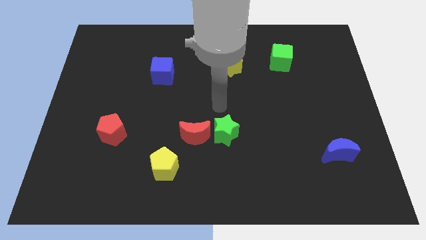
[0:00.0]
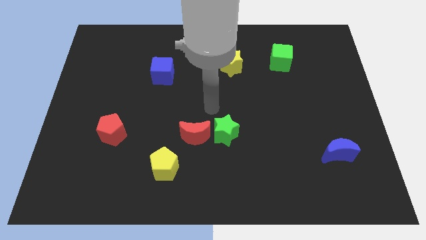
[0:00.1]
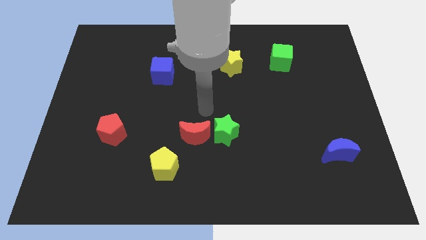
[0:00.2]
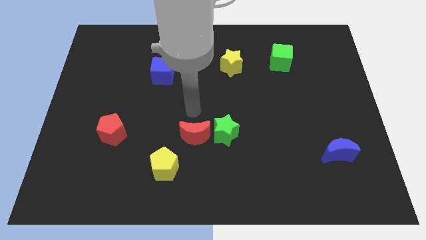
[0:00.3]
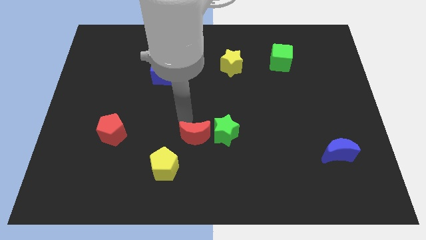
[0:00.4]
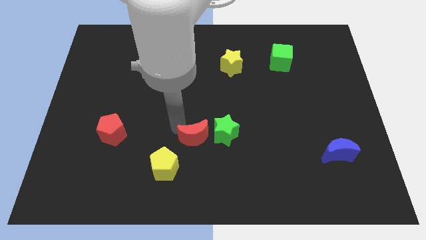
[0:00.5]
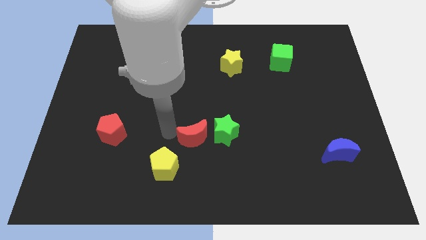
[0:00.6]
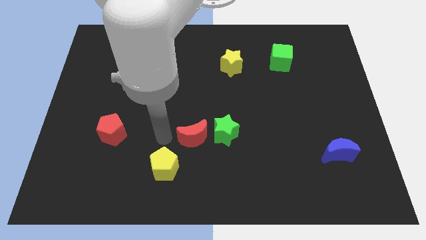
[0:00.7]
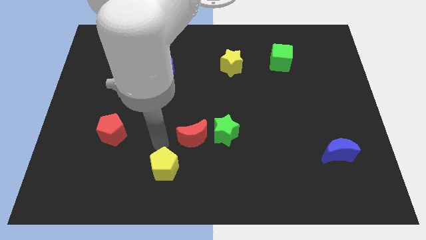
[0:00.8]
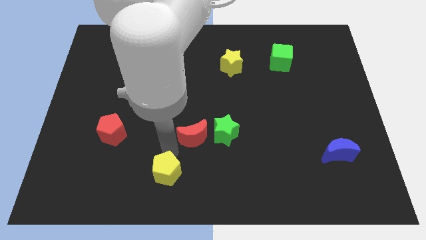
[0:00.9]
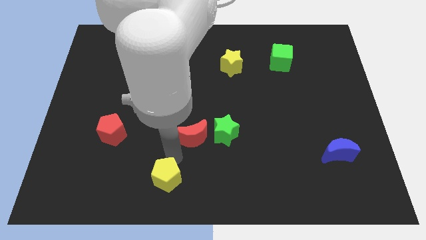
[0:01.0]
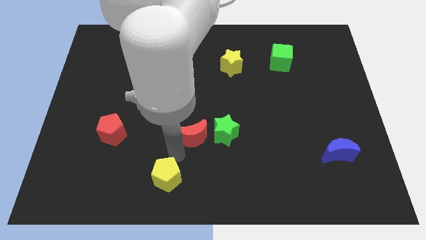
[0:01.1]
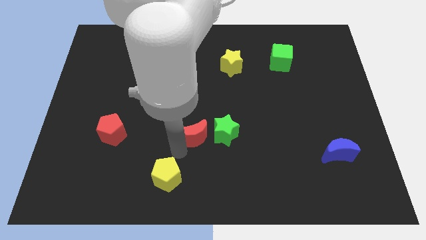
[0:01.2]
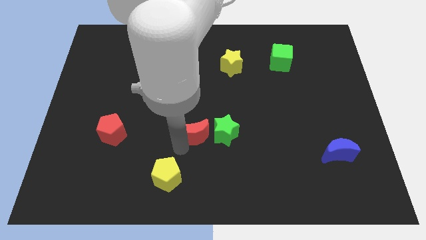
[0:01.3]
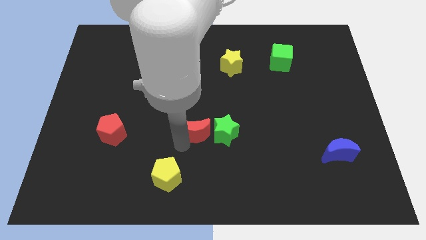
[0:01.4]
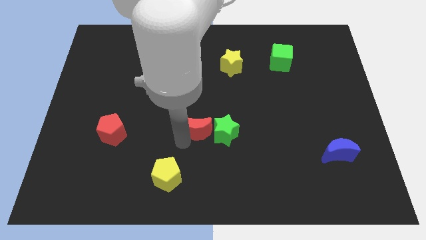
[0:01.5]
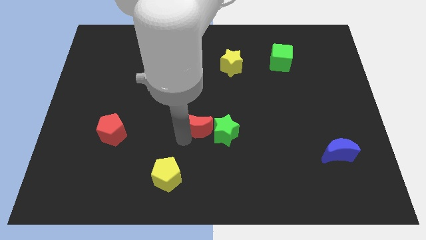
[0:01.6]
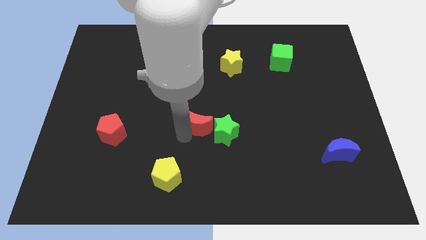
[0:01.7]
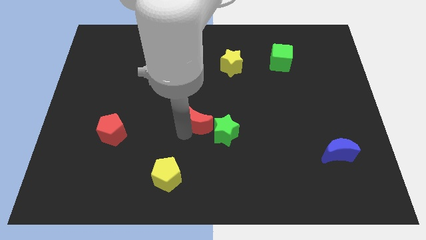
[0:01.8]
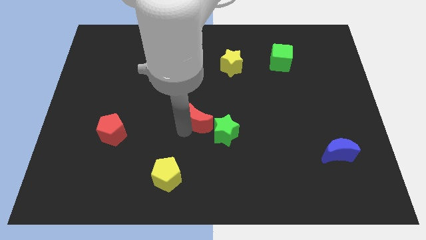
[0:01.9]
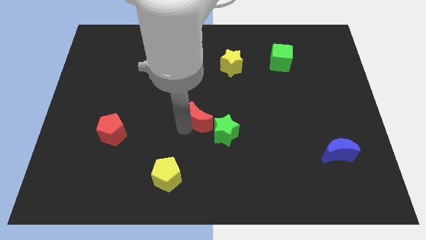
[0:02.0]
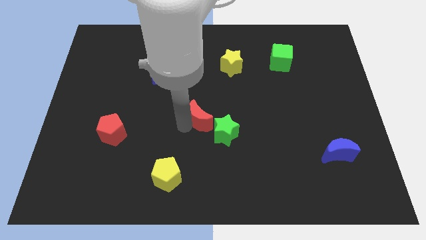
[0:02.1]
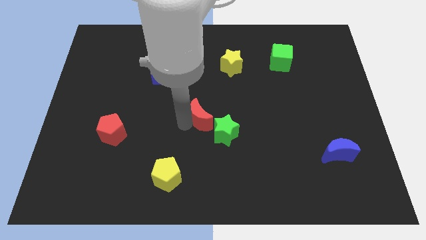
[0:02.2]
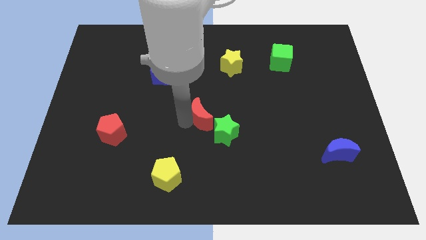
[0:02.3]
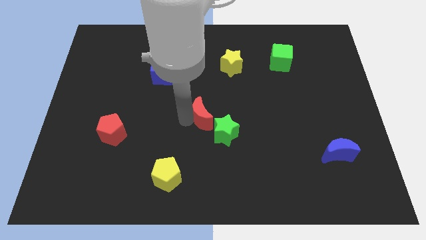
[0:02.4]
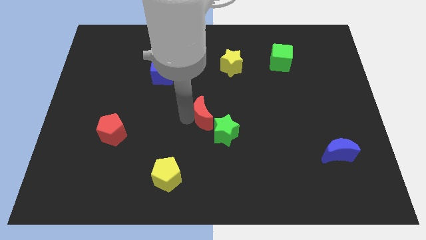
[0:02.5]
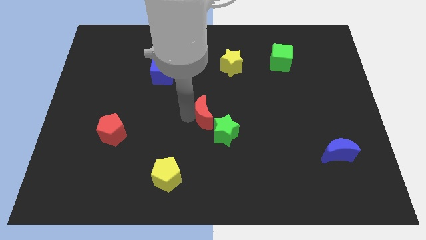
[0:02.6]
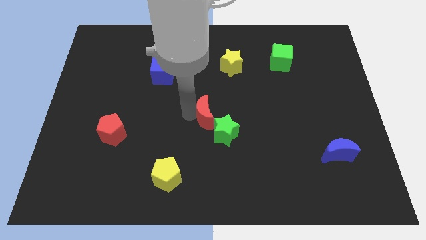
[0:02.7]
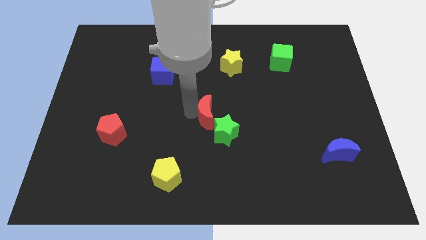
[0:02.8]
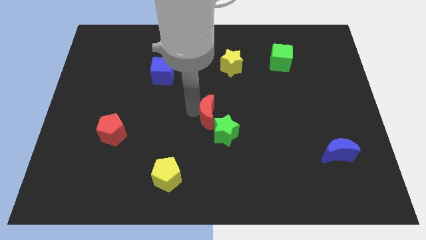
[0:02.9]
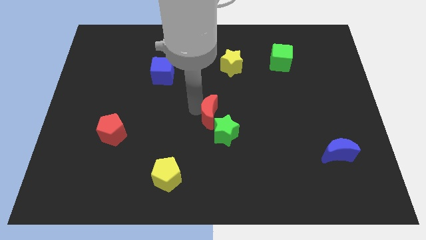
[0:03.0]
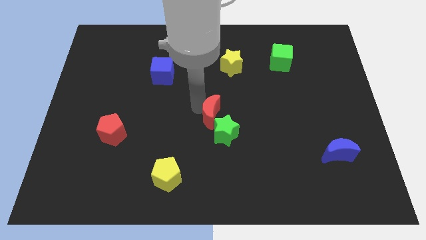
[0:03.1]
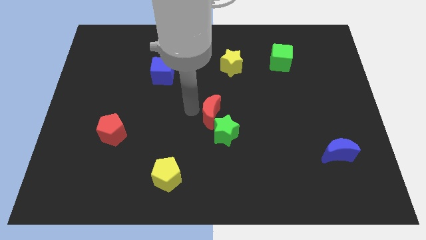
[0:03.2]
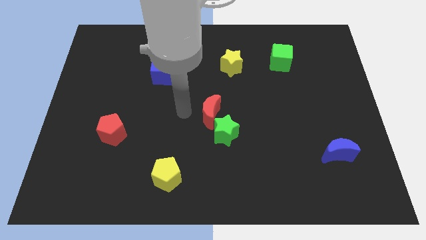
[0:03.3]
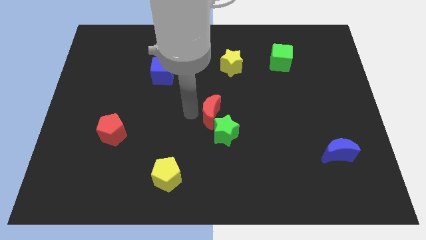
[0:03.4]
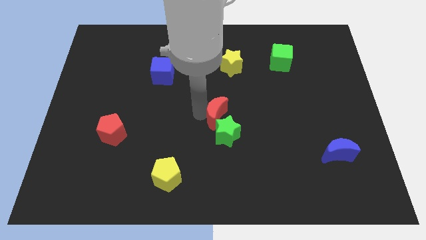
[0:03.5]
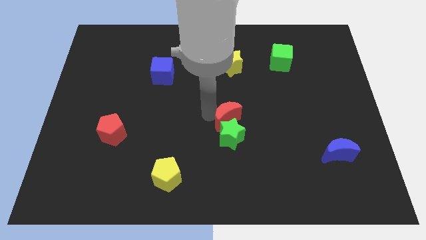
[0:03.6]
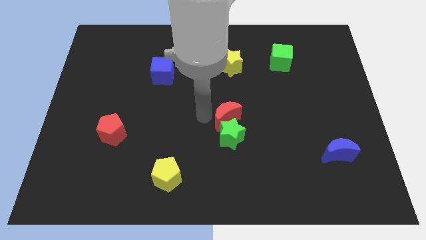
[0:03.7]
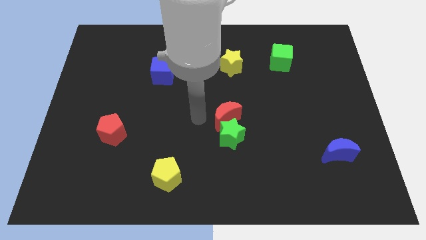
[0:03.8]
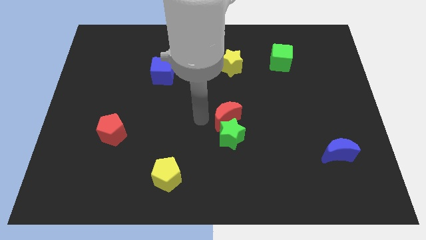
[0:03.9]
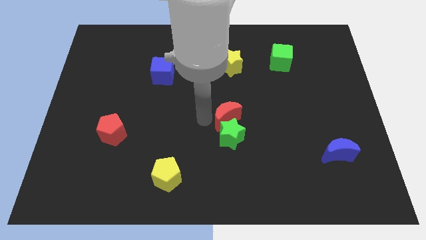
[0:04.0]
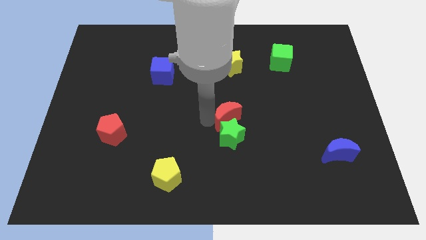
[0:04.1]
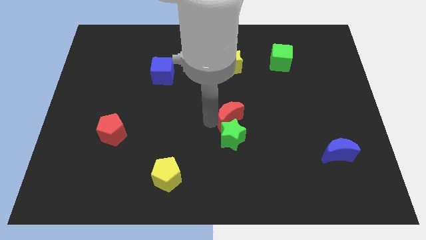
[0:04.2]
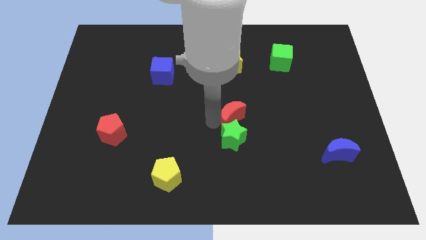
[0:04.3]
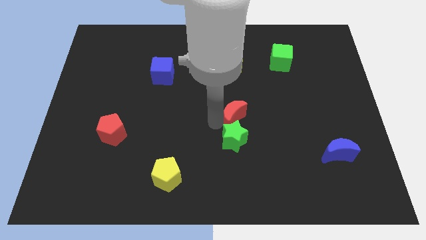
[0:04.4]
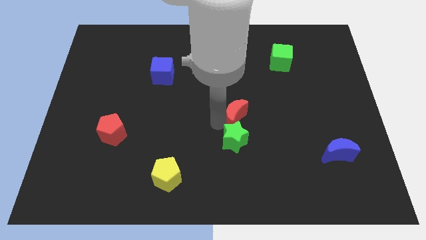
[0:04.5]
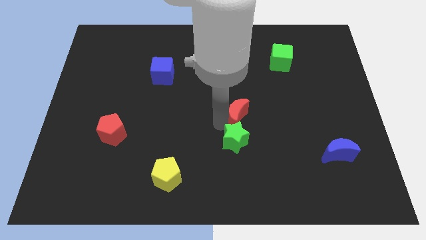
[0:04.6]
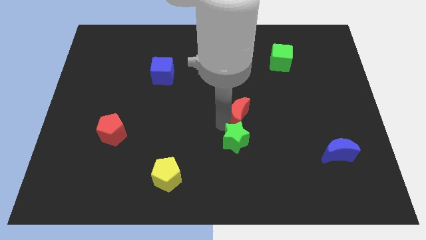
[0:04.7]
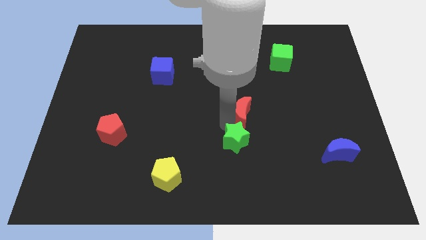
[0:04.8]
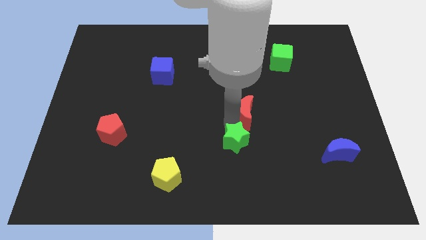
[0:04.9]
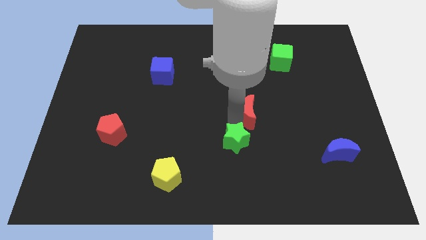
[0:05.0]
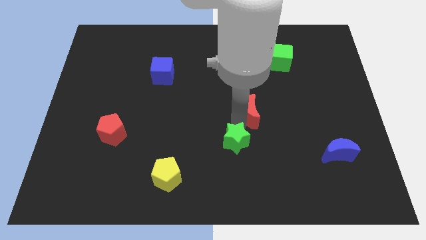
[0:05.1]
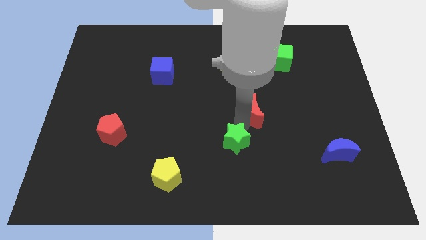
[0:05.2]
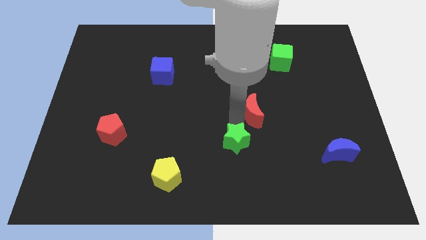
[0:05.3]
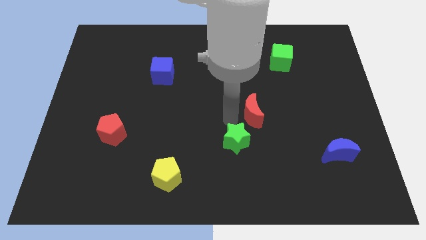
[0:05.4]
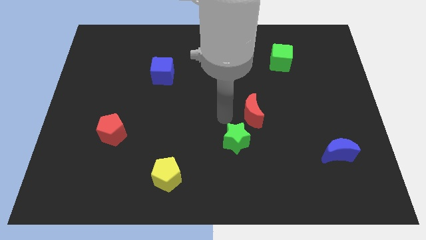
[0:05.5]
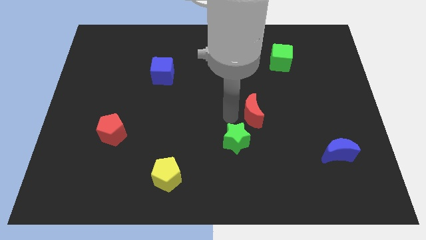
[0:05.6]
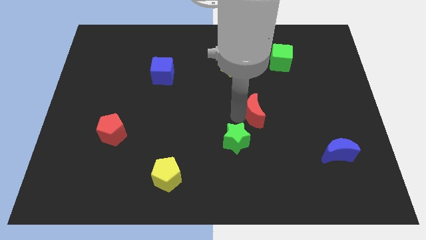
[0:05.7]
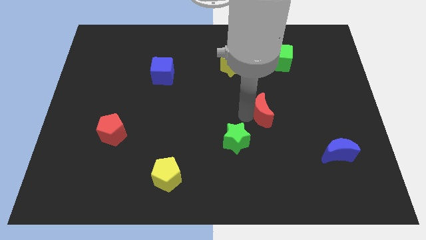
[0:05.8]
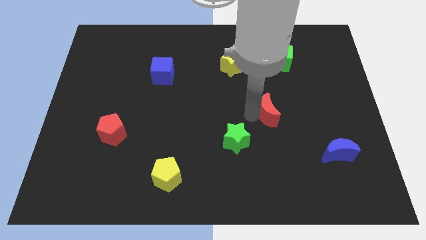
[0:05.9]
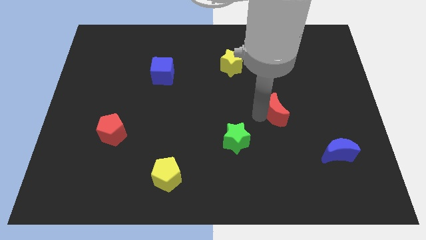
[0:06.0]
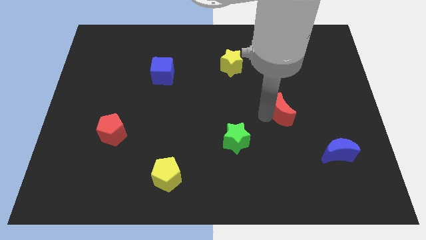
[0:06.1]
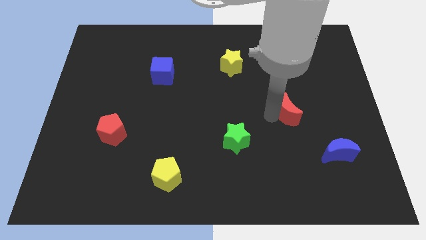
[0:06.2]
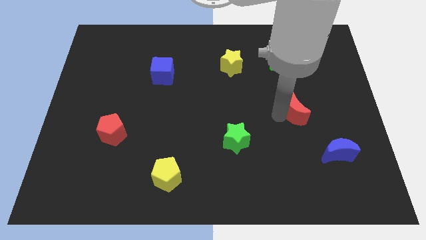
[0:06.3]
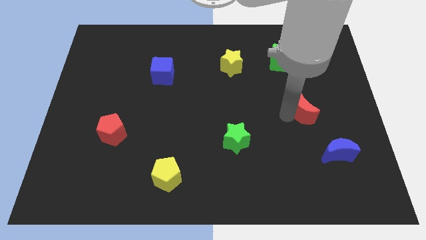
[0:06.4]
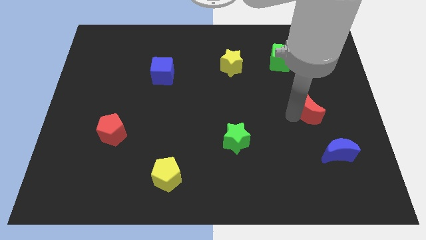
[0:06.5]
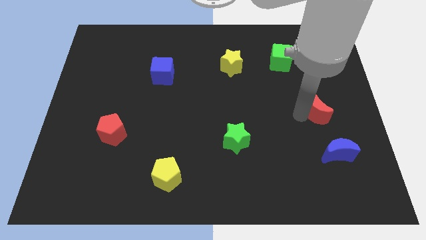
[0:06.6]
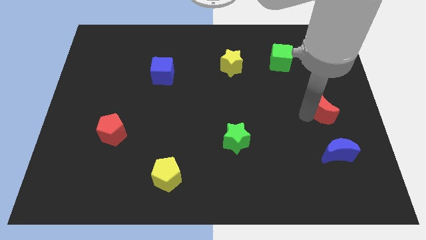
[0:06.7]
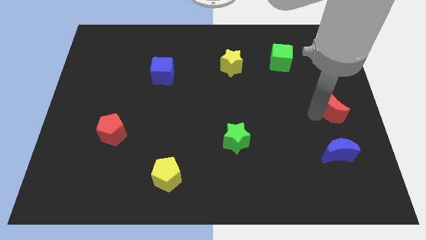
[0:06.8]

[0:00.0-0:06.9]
push the red moon to the right side

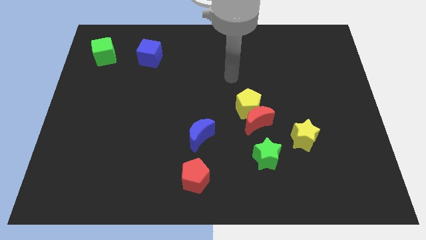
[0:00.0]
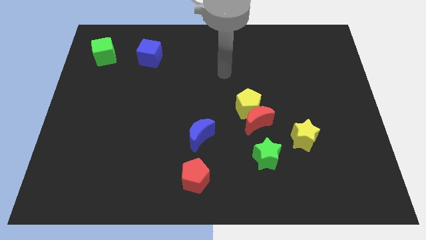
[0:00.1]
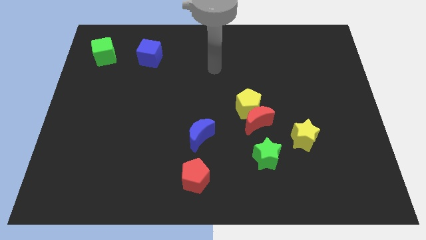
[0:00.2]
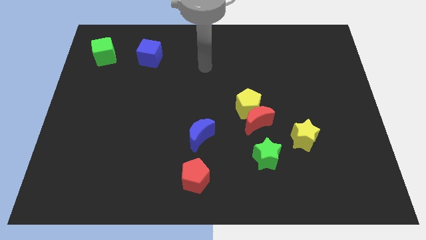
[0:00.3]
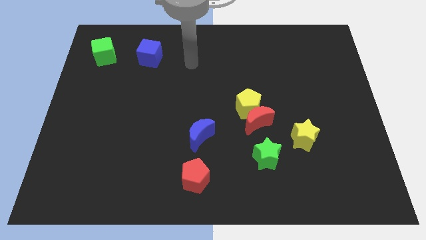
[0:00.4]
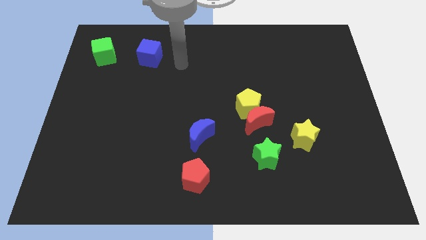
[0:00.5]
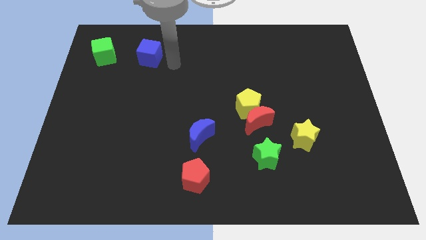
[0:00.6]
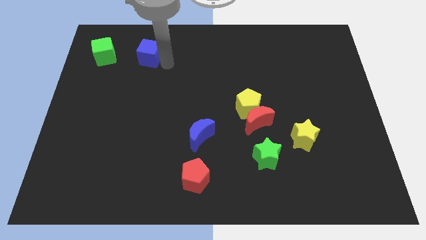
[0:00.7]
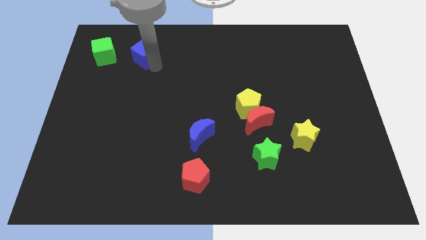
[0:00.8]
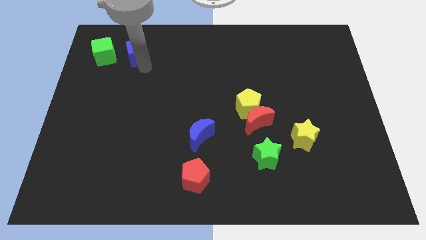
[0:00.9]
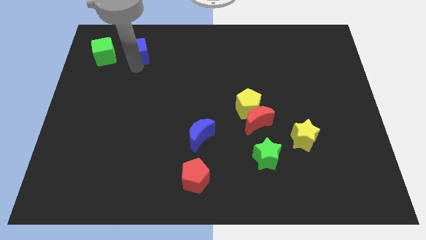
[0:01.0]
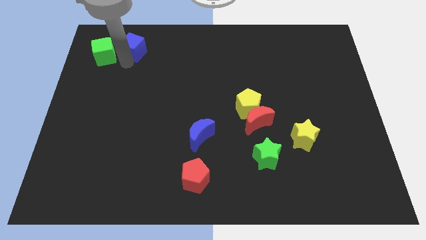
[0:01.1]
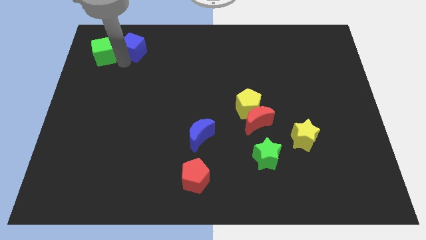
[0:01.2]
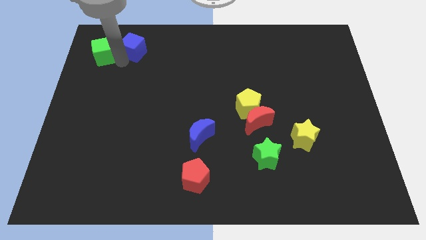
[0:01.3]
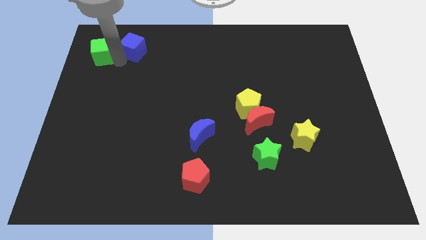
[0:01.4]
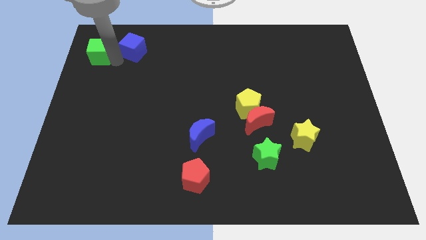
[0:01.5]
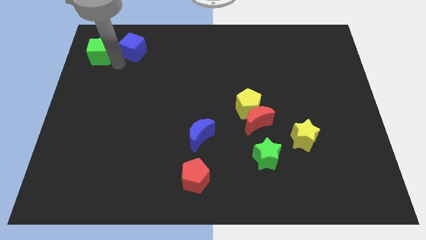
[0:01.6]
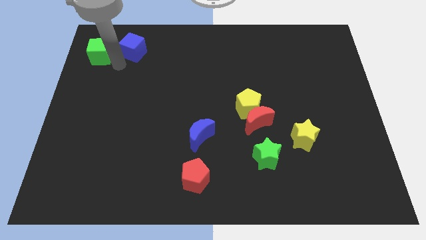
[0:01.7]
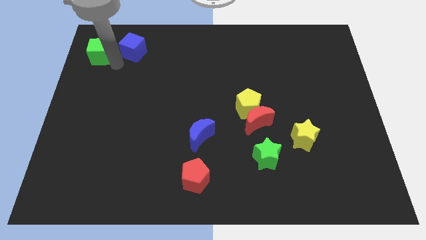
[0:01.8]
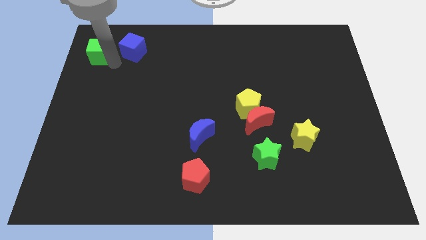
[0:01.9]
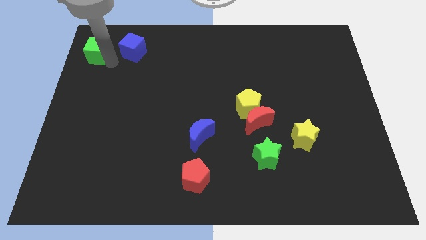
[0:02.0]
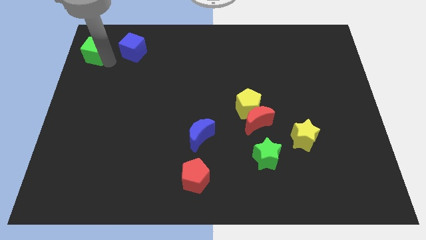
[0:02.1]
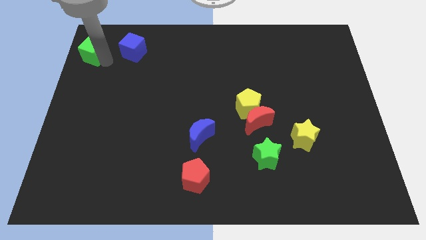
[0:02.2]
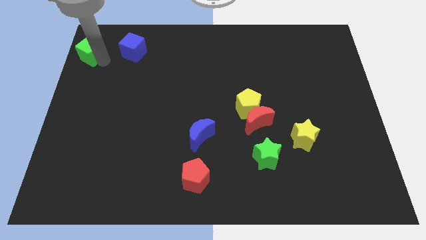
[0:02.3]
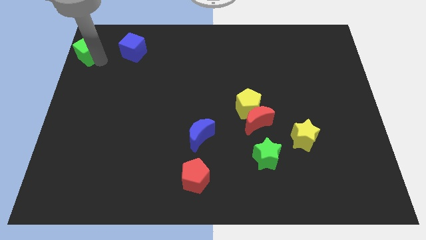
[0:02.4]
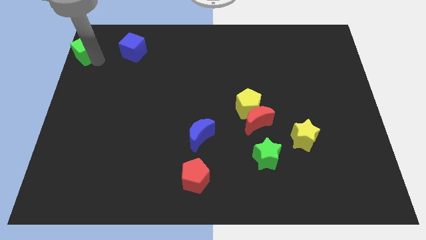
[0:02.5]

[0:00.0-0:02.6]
move the green cube to the top left
